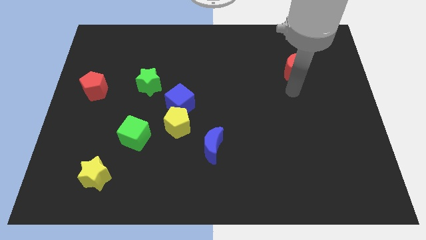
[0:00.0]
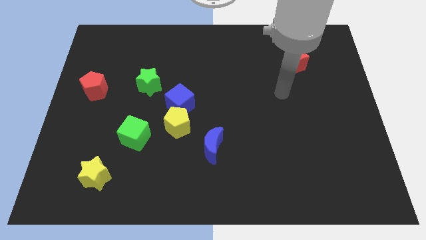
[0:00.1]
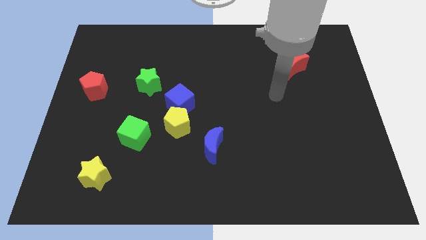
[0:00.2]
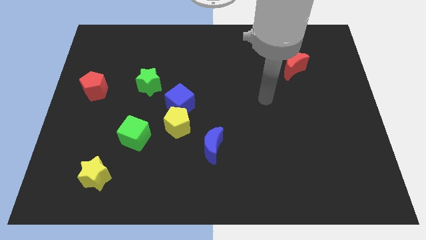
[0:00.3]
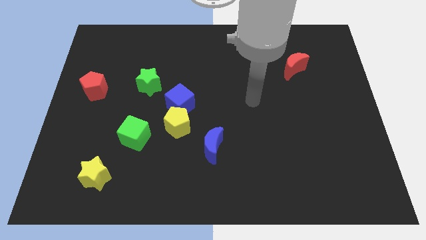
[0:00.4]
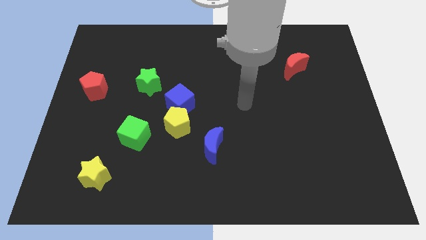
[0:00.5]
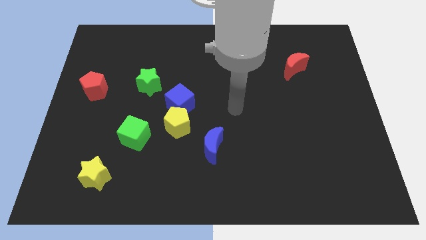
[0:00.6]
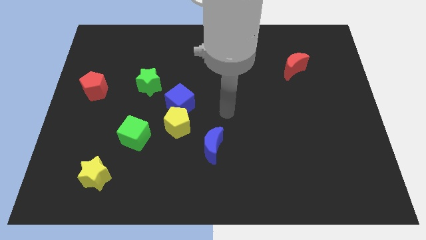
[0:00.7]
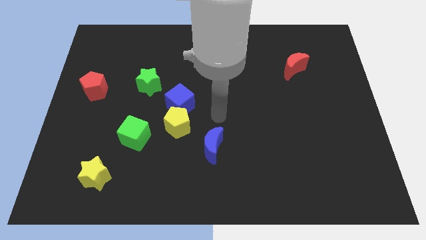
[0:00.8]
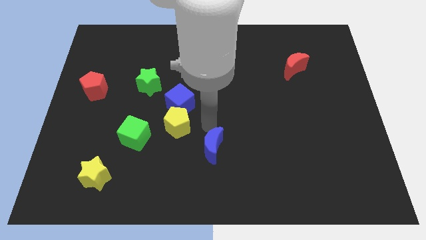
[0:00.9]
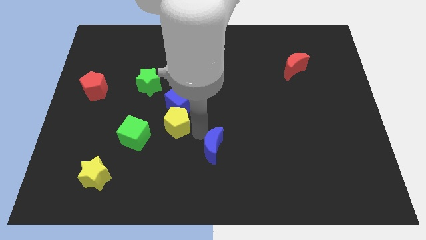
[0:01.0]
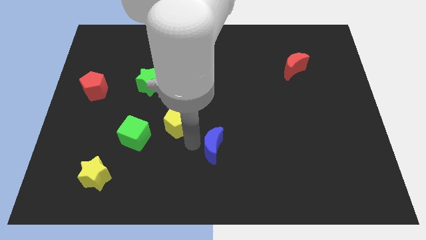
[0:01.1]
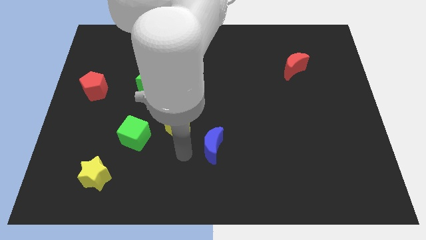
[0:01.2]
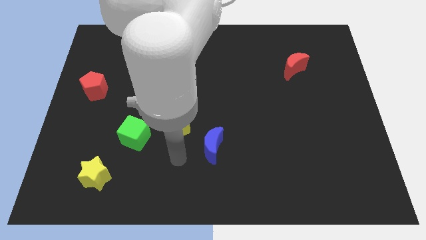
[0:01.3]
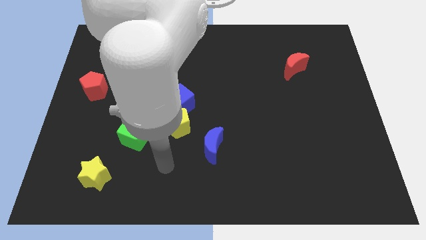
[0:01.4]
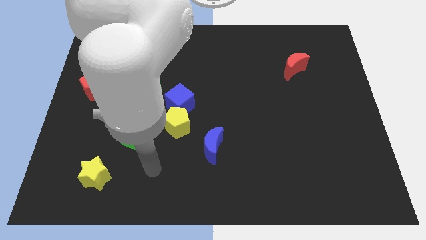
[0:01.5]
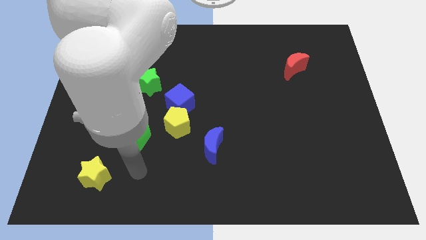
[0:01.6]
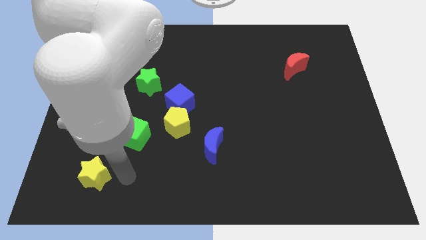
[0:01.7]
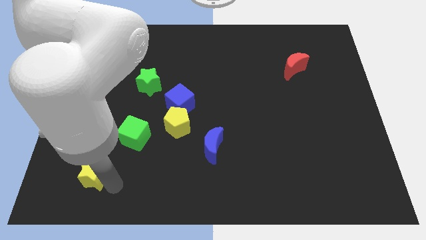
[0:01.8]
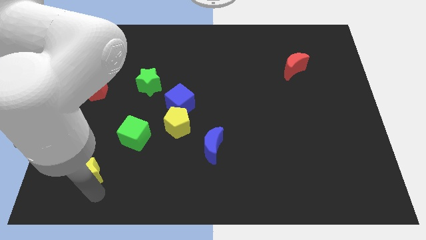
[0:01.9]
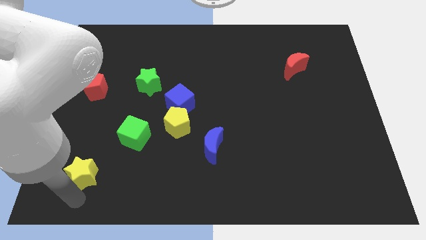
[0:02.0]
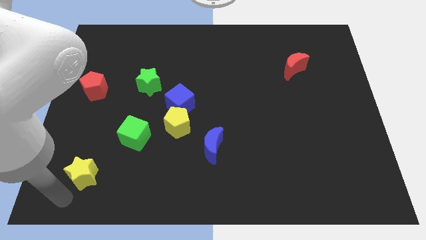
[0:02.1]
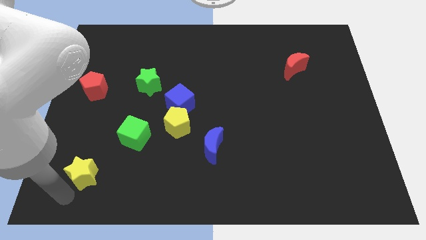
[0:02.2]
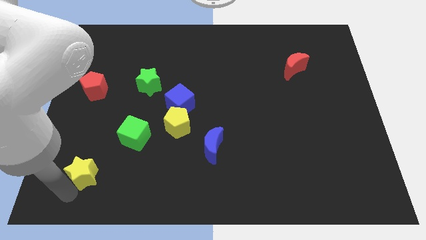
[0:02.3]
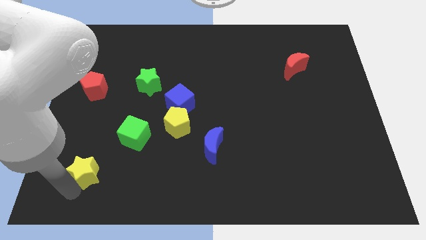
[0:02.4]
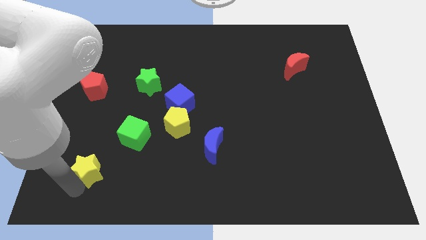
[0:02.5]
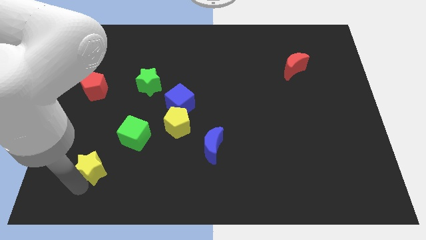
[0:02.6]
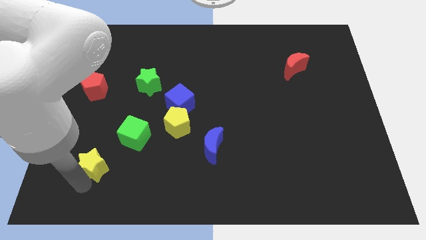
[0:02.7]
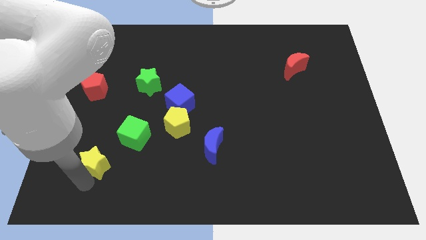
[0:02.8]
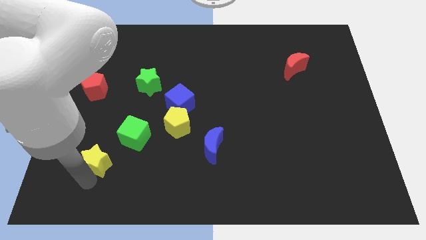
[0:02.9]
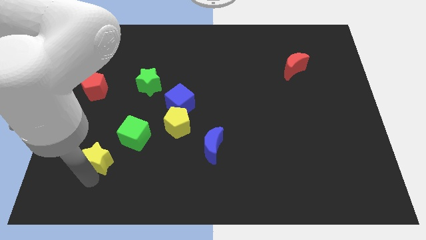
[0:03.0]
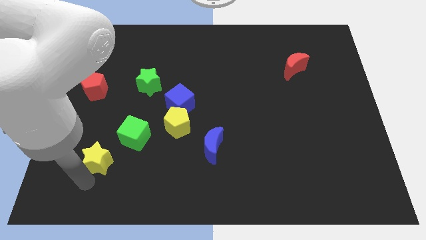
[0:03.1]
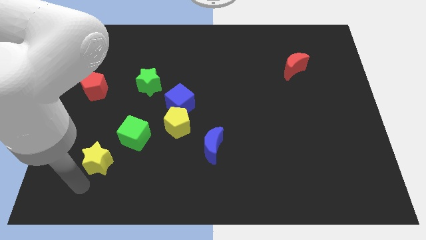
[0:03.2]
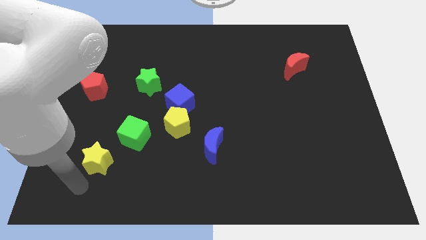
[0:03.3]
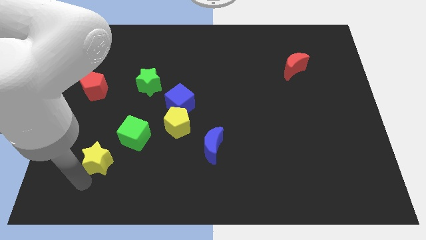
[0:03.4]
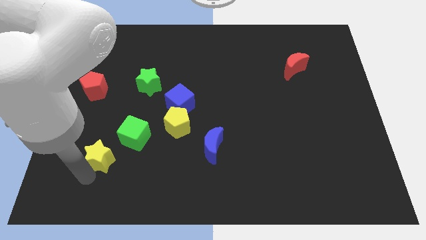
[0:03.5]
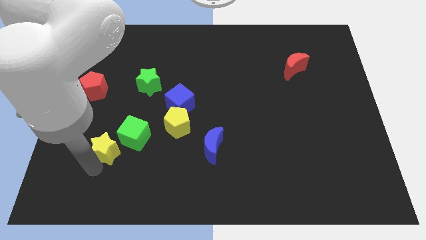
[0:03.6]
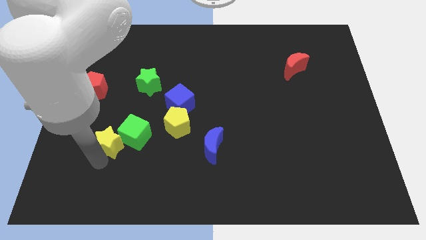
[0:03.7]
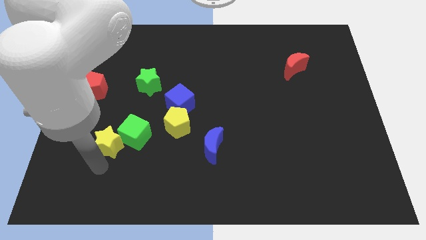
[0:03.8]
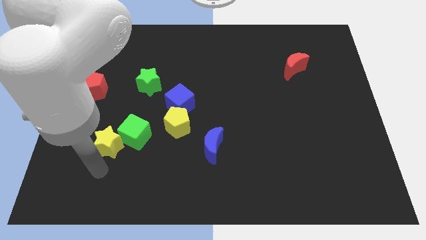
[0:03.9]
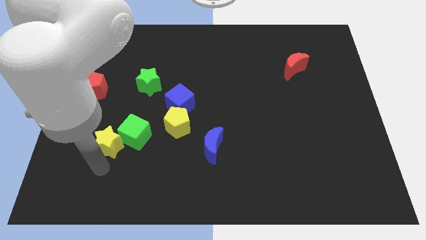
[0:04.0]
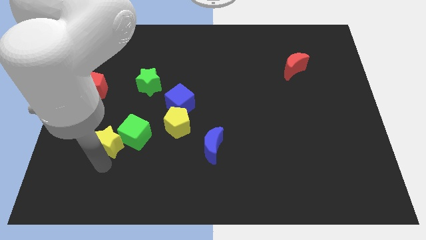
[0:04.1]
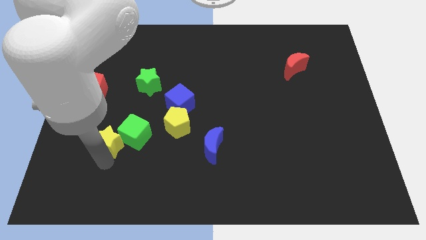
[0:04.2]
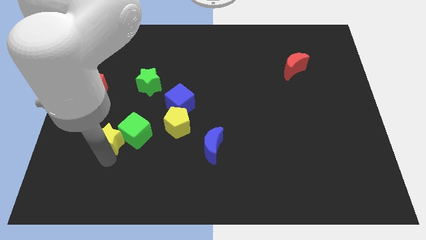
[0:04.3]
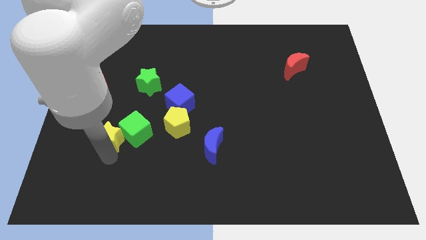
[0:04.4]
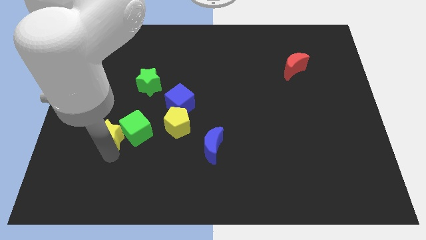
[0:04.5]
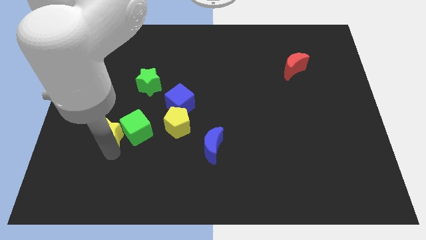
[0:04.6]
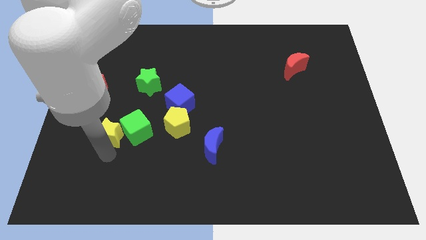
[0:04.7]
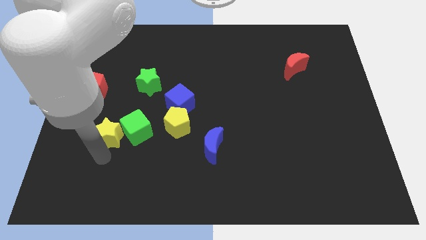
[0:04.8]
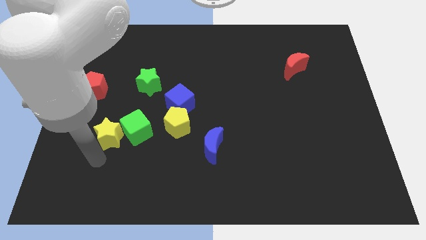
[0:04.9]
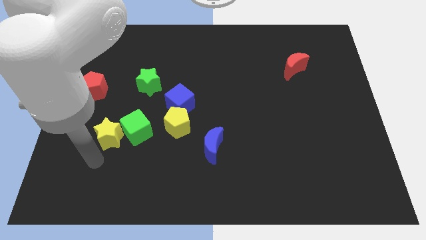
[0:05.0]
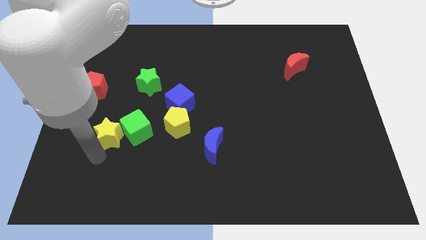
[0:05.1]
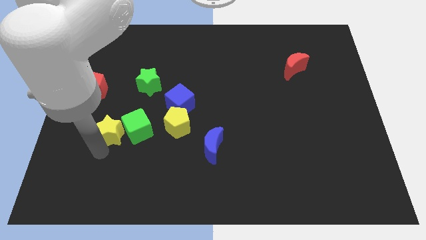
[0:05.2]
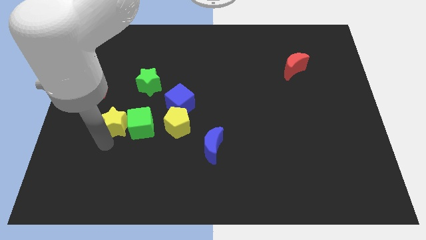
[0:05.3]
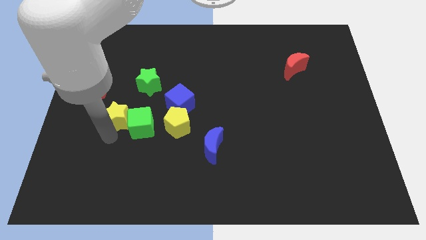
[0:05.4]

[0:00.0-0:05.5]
push the yellow star to the bottom left side of the green star

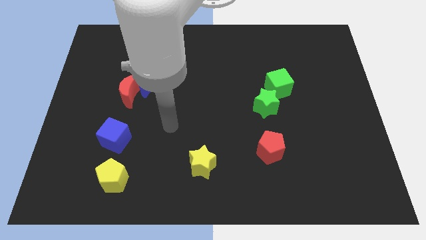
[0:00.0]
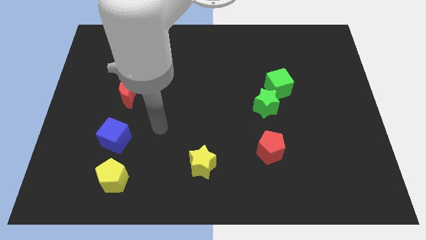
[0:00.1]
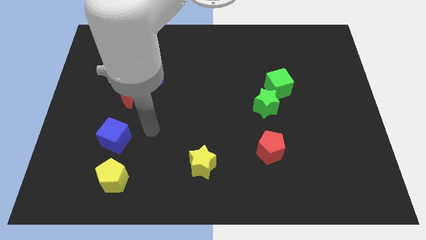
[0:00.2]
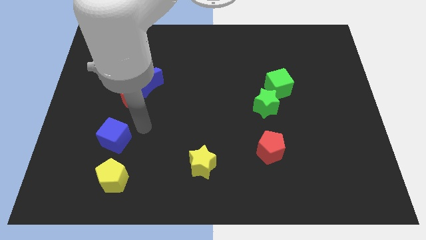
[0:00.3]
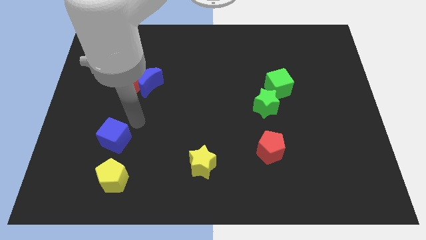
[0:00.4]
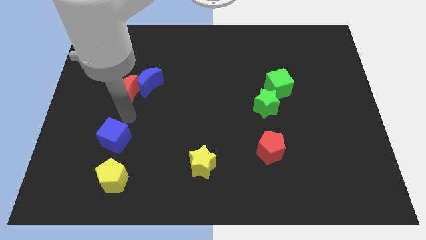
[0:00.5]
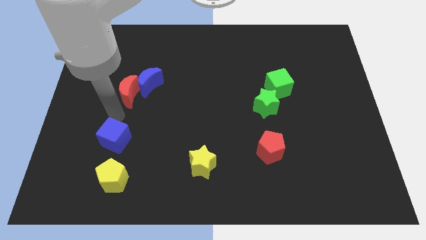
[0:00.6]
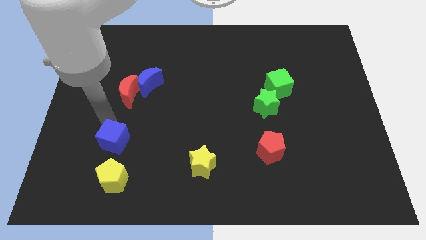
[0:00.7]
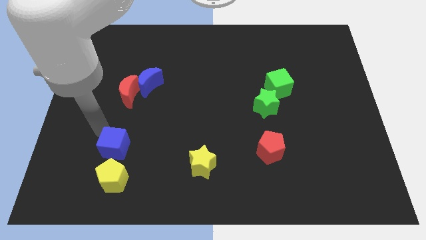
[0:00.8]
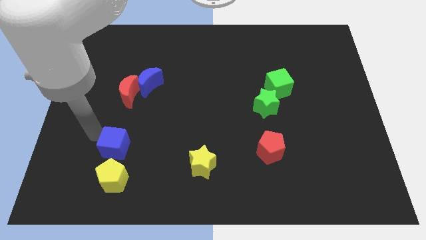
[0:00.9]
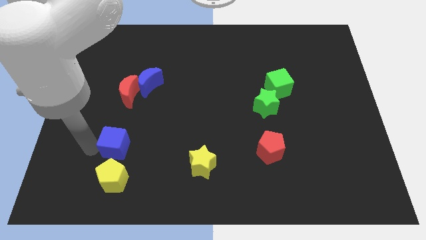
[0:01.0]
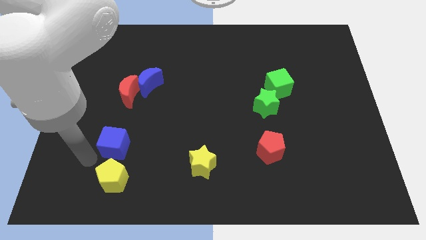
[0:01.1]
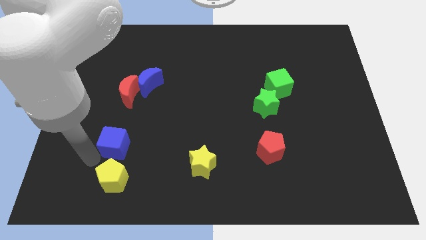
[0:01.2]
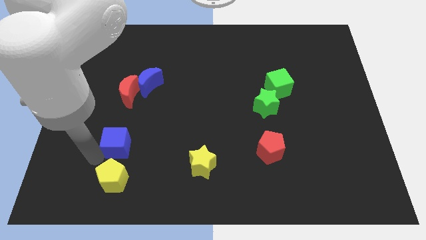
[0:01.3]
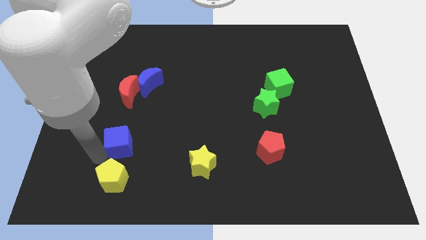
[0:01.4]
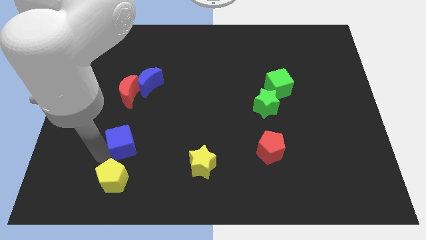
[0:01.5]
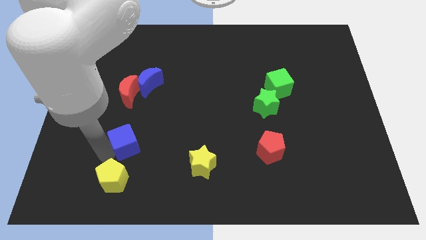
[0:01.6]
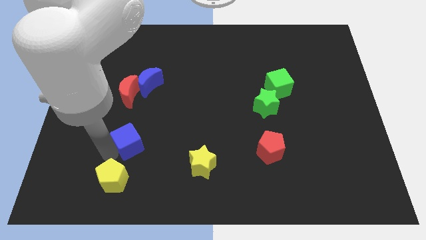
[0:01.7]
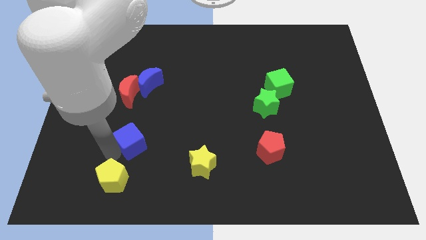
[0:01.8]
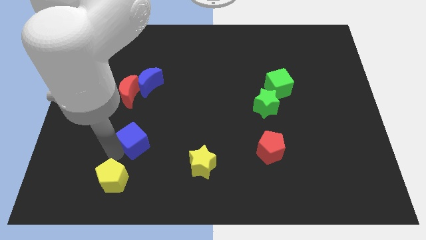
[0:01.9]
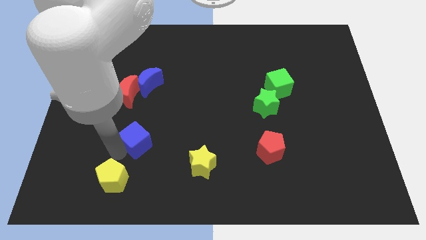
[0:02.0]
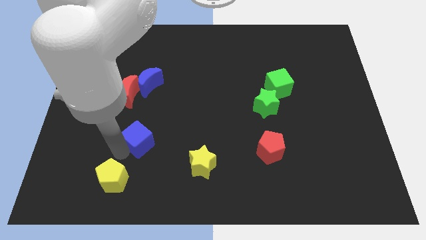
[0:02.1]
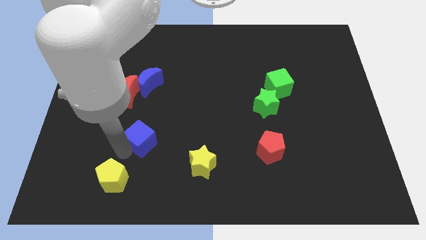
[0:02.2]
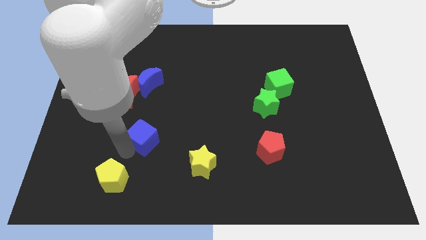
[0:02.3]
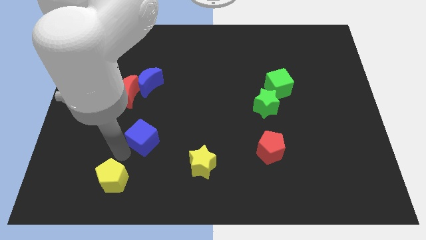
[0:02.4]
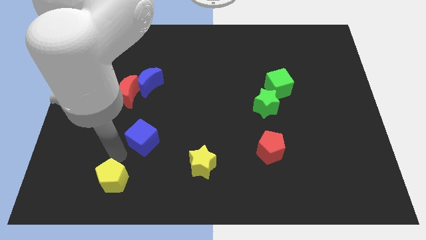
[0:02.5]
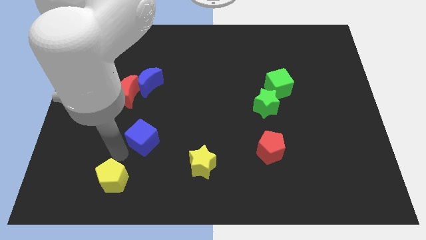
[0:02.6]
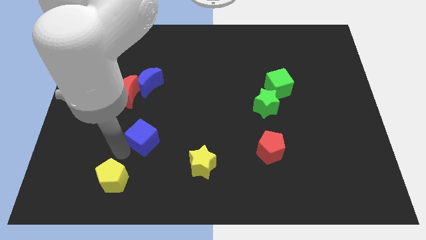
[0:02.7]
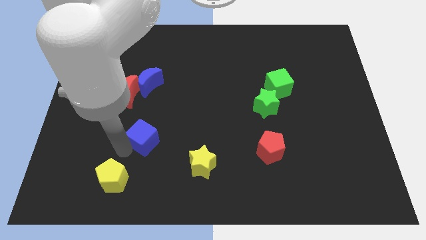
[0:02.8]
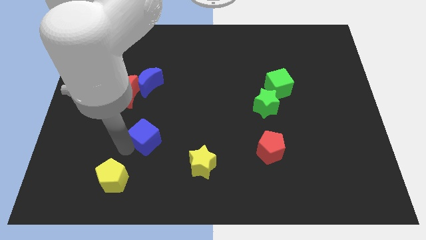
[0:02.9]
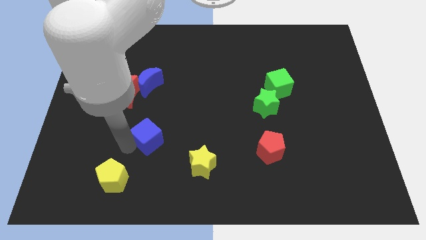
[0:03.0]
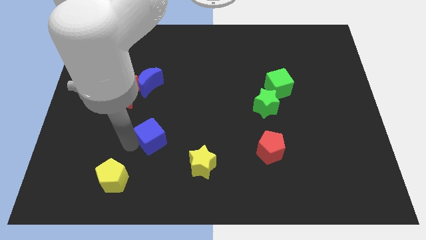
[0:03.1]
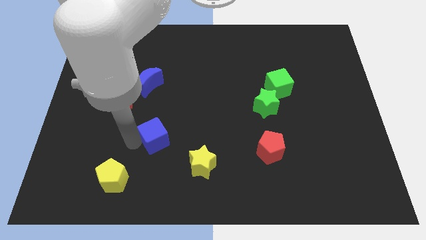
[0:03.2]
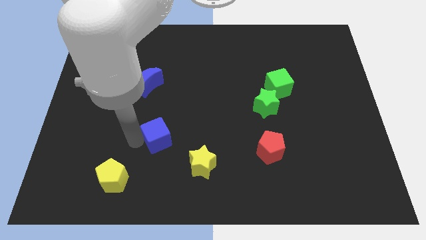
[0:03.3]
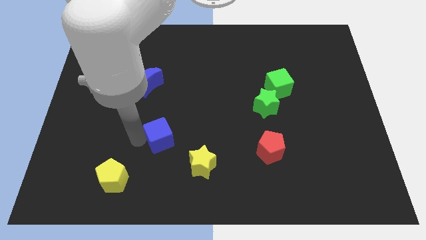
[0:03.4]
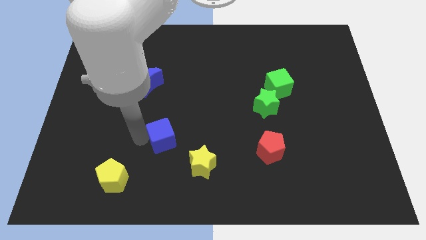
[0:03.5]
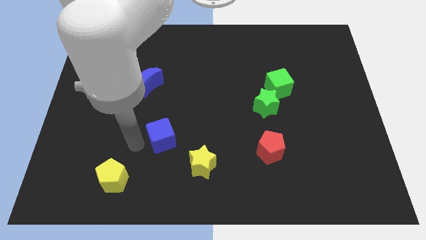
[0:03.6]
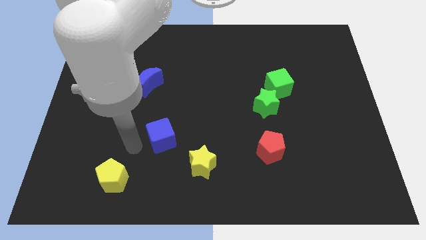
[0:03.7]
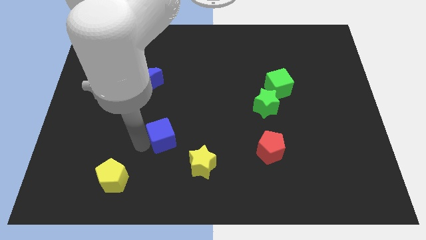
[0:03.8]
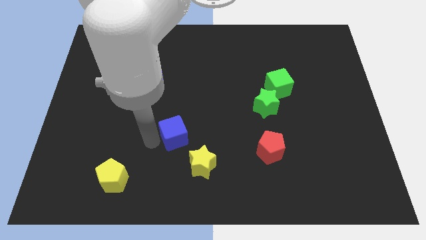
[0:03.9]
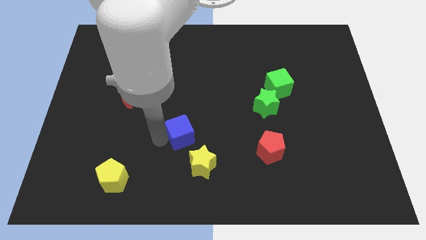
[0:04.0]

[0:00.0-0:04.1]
slide the blue cube to the top side of the yellow star
